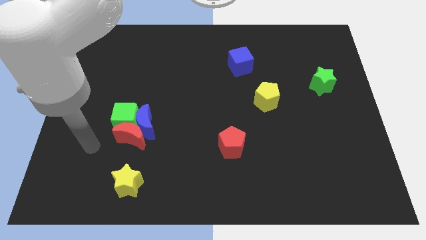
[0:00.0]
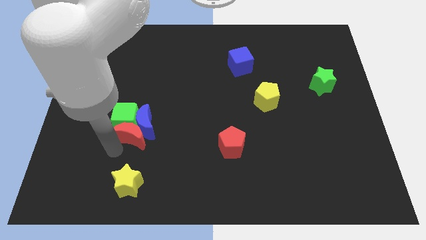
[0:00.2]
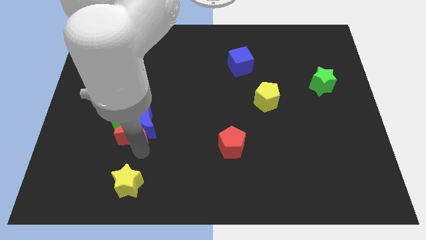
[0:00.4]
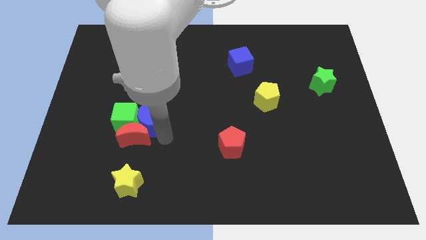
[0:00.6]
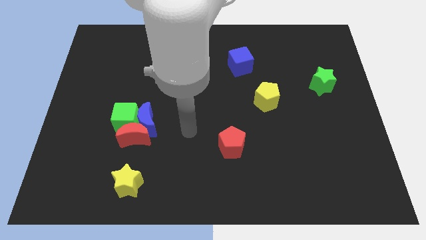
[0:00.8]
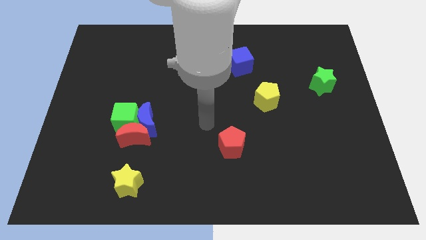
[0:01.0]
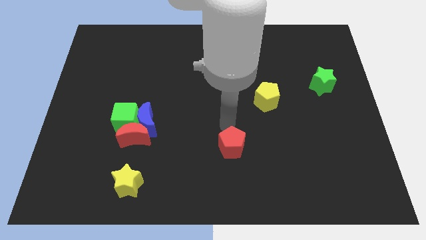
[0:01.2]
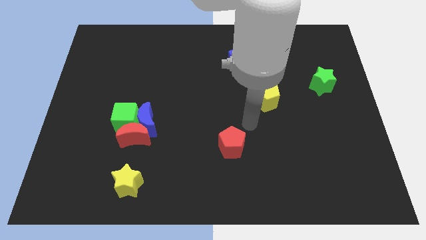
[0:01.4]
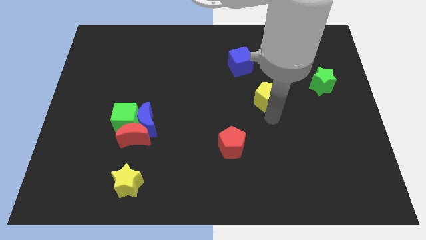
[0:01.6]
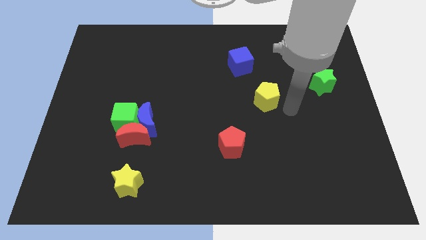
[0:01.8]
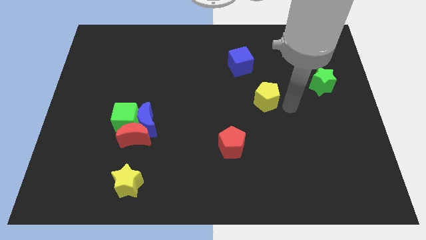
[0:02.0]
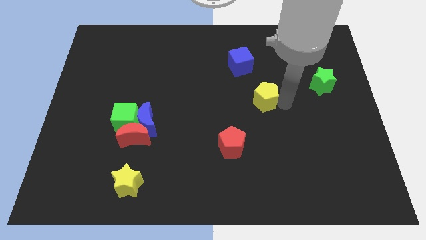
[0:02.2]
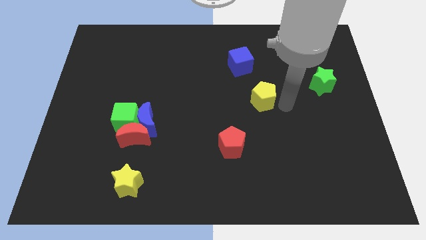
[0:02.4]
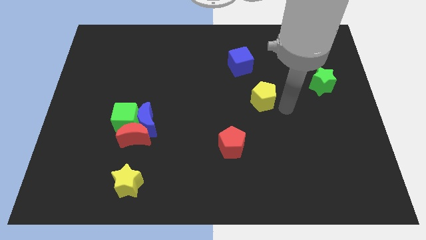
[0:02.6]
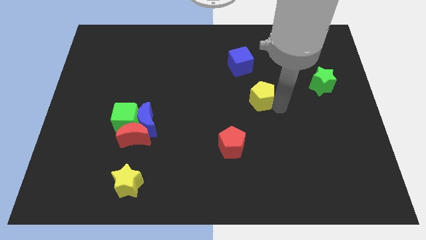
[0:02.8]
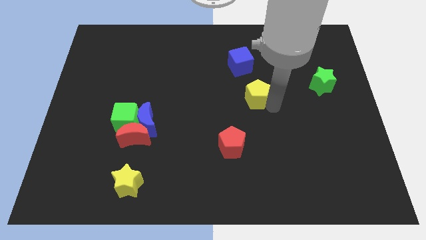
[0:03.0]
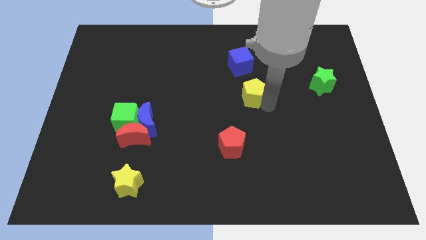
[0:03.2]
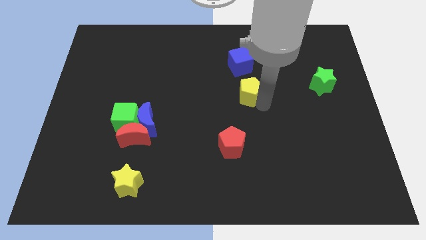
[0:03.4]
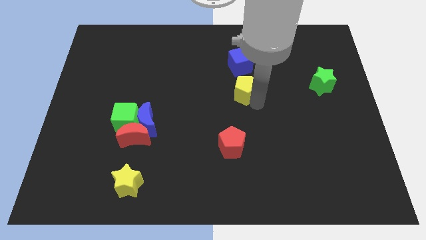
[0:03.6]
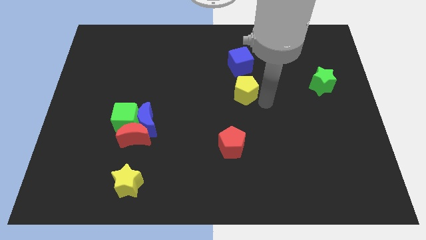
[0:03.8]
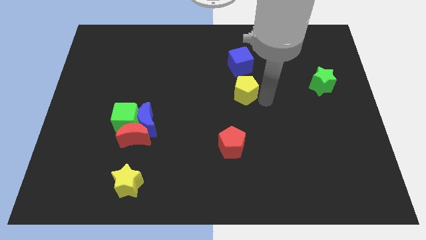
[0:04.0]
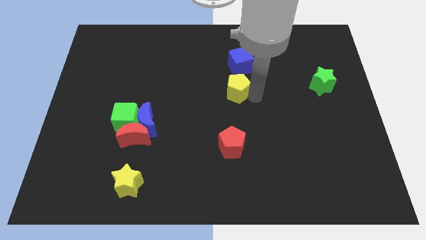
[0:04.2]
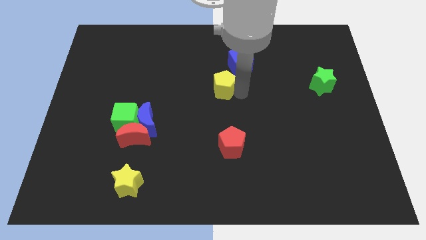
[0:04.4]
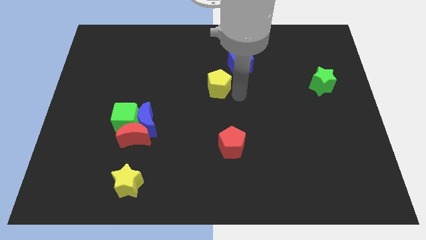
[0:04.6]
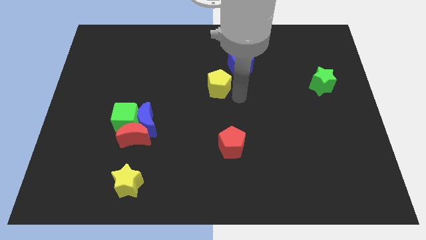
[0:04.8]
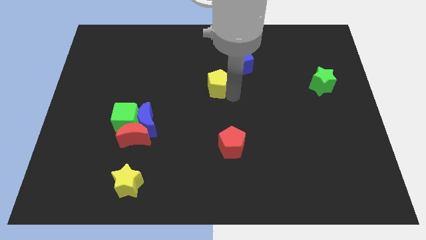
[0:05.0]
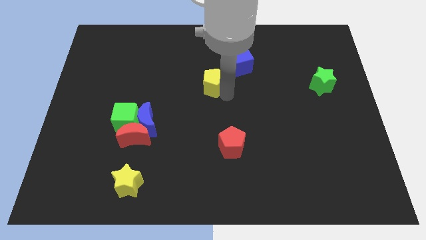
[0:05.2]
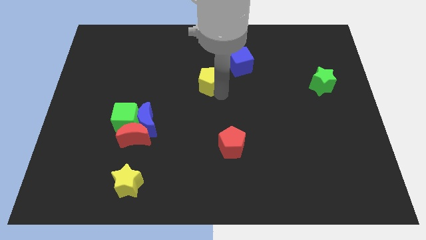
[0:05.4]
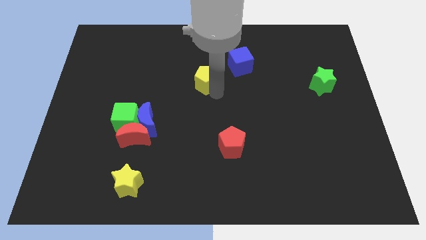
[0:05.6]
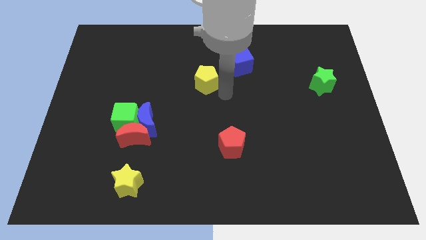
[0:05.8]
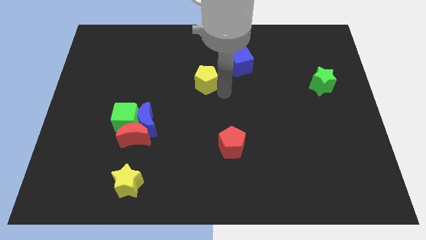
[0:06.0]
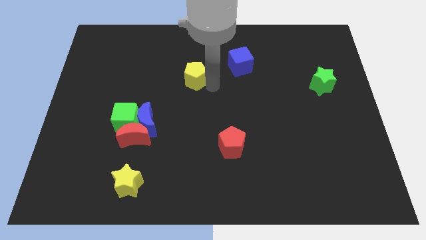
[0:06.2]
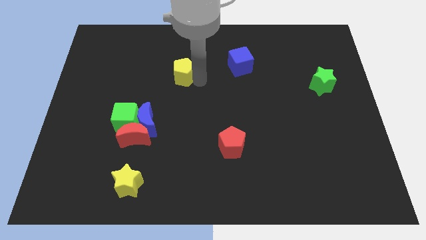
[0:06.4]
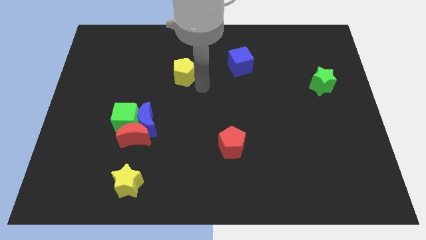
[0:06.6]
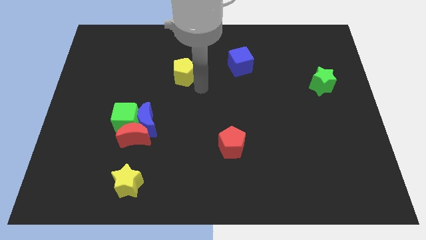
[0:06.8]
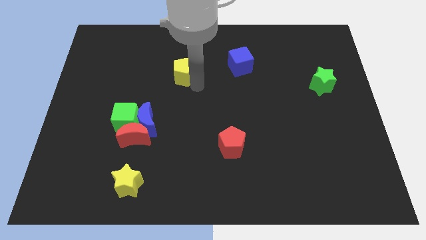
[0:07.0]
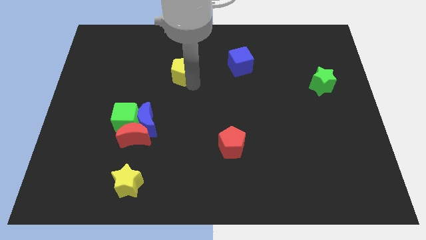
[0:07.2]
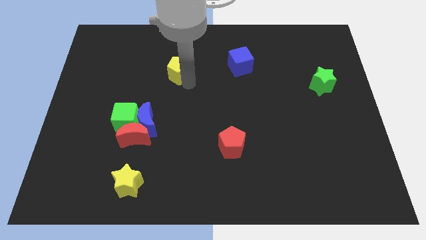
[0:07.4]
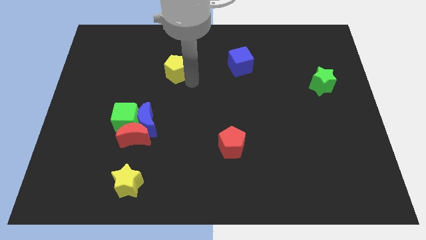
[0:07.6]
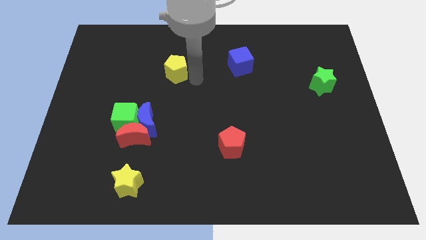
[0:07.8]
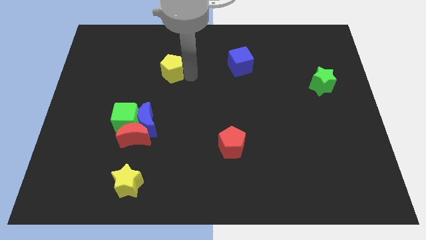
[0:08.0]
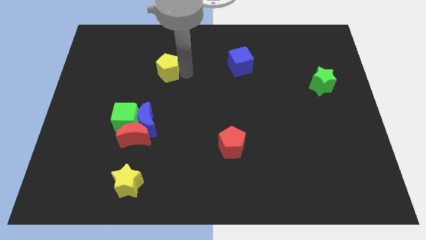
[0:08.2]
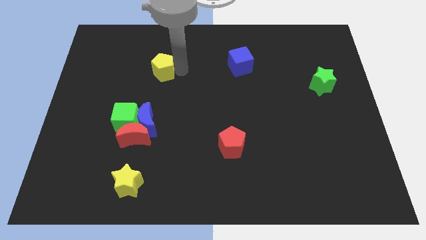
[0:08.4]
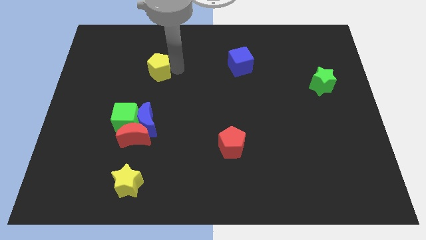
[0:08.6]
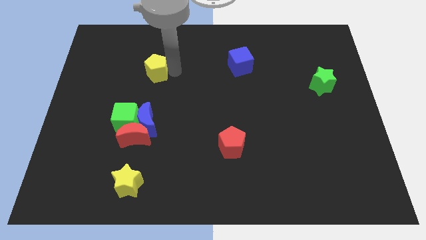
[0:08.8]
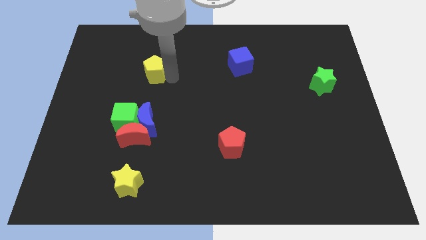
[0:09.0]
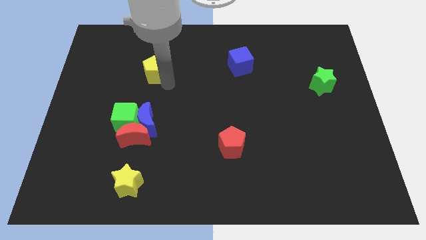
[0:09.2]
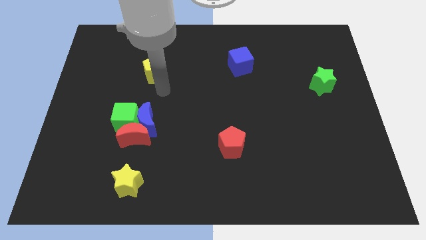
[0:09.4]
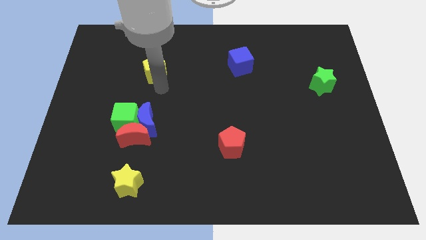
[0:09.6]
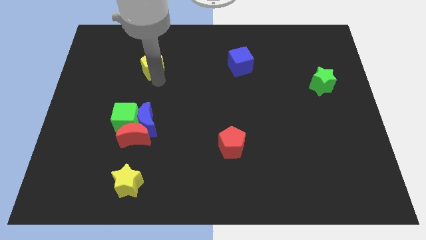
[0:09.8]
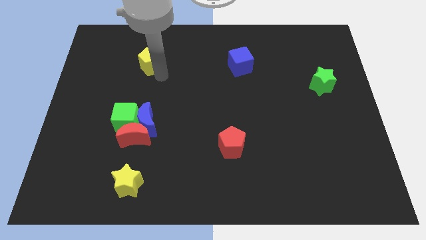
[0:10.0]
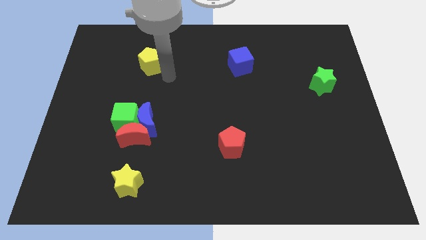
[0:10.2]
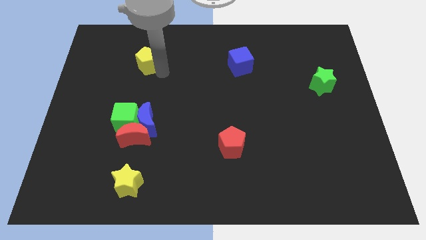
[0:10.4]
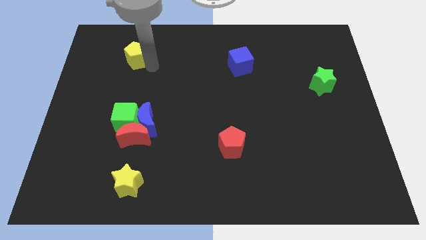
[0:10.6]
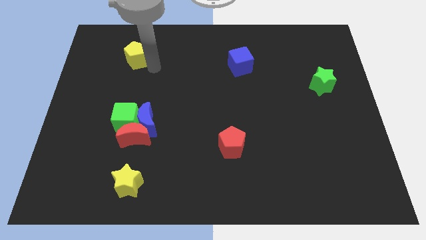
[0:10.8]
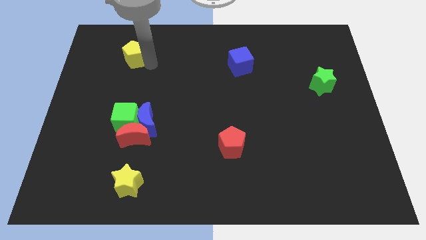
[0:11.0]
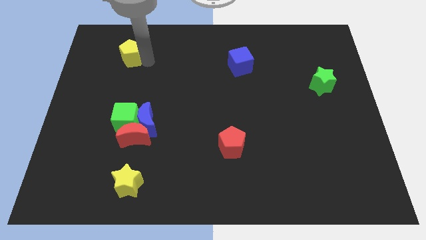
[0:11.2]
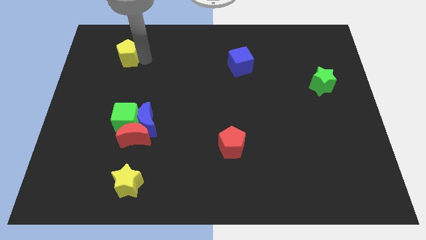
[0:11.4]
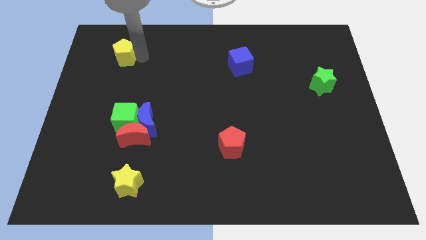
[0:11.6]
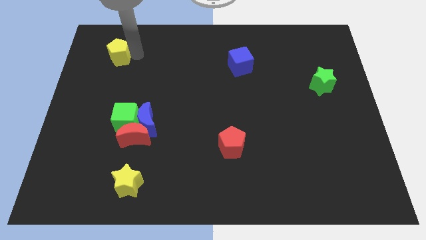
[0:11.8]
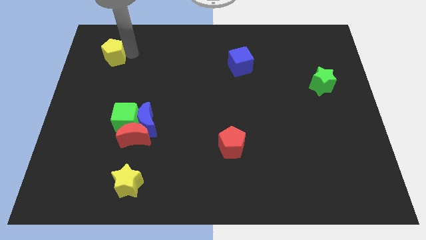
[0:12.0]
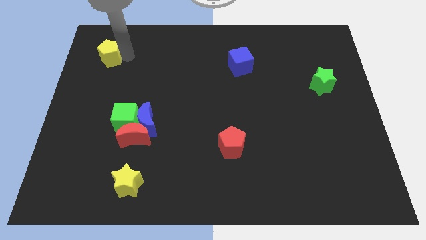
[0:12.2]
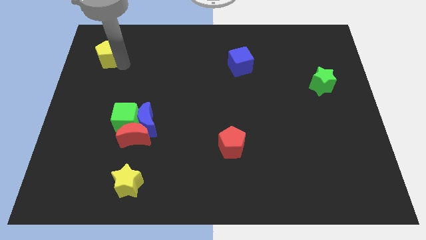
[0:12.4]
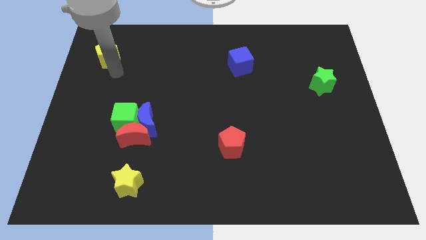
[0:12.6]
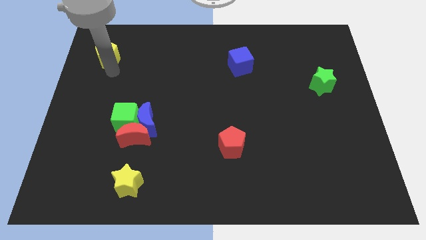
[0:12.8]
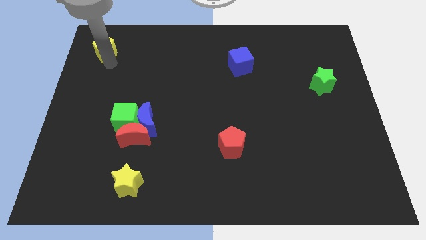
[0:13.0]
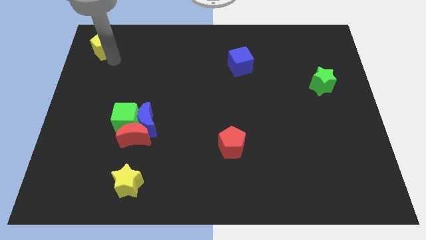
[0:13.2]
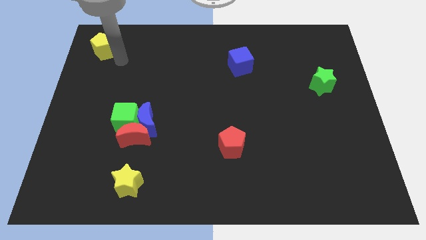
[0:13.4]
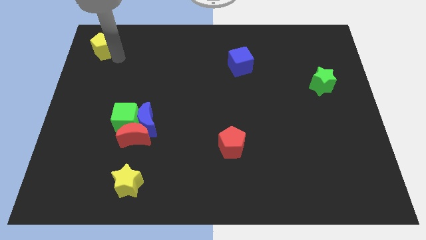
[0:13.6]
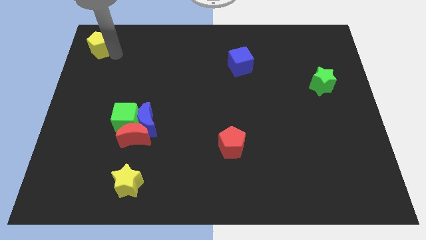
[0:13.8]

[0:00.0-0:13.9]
push the yellow pentagon to the top left corner
